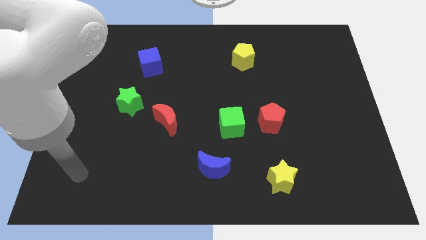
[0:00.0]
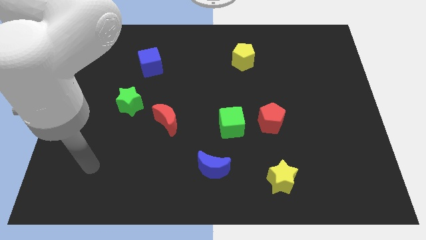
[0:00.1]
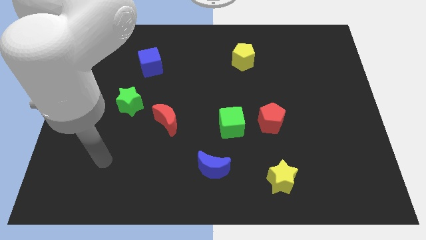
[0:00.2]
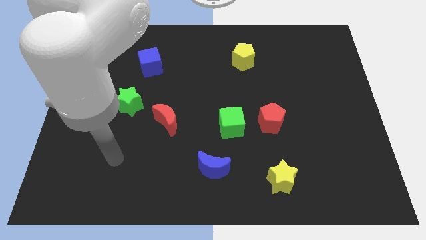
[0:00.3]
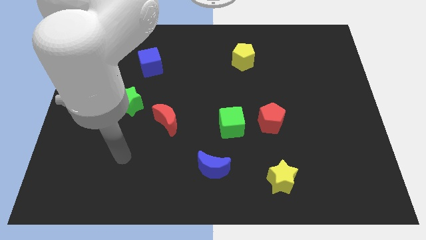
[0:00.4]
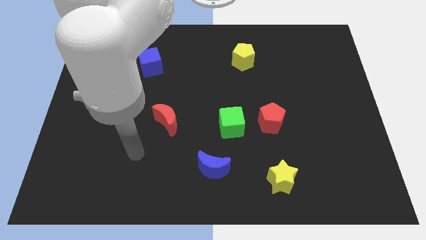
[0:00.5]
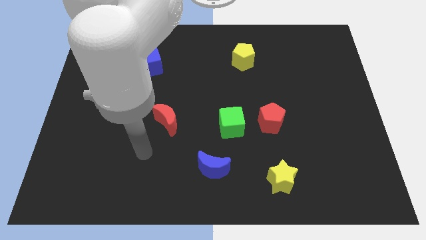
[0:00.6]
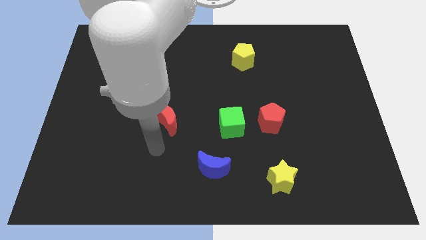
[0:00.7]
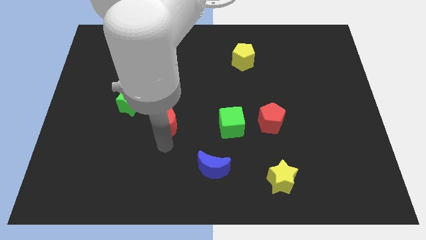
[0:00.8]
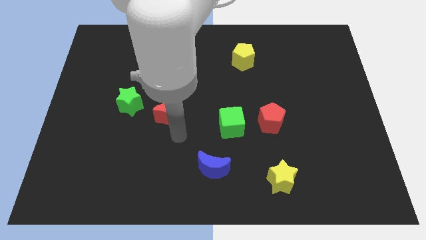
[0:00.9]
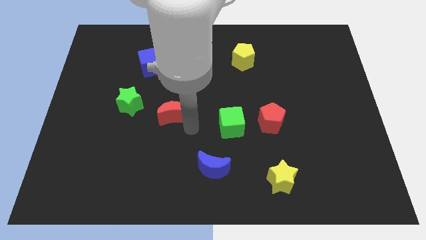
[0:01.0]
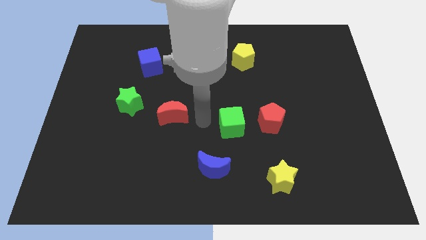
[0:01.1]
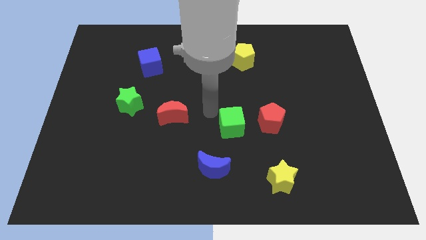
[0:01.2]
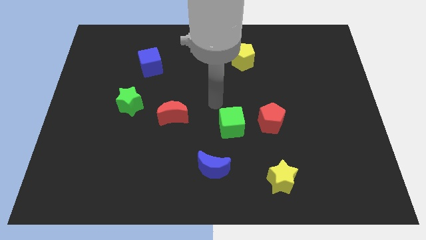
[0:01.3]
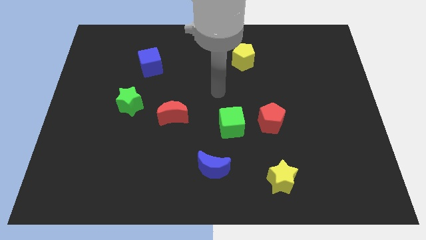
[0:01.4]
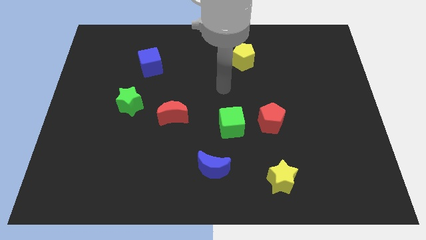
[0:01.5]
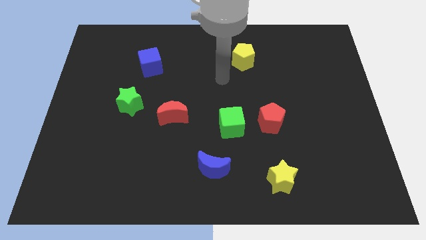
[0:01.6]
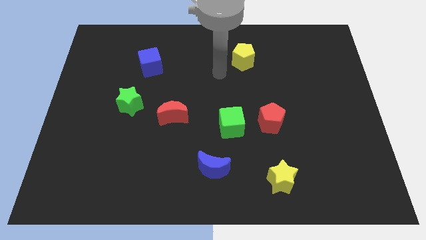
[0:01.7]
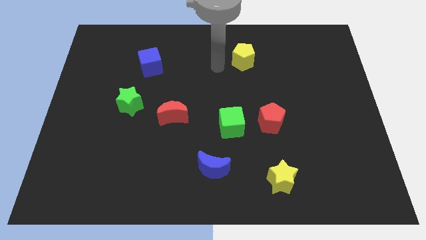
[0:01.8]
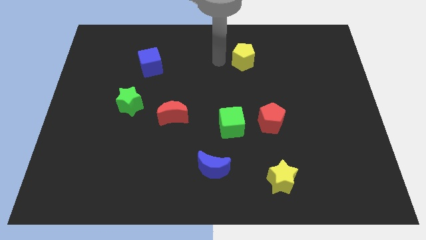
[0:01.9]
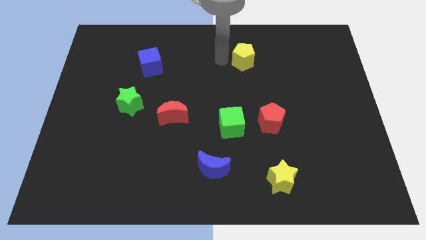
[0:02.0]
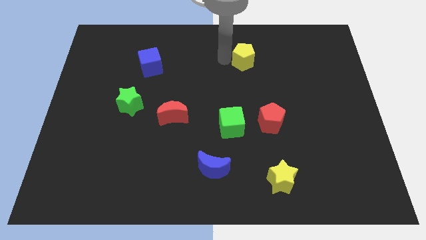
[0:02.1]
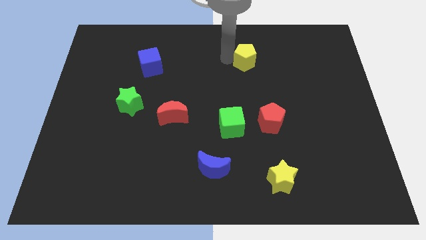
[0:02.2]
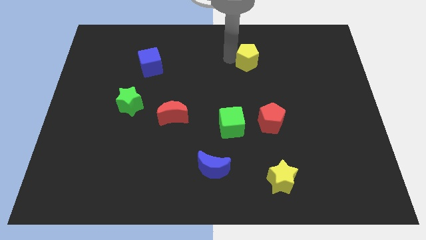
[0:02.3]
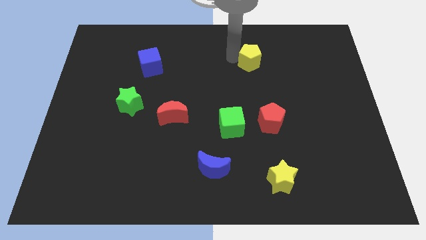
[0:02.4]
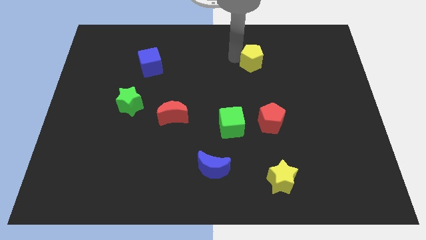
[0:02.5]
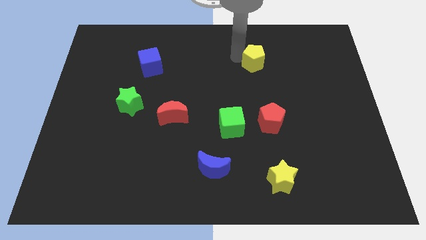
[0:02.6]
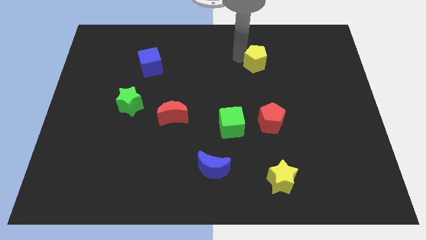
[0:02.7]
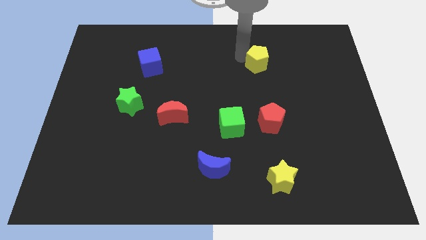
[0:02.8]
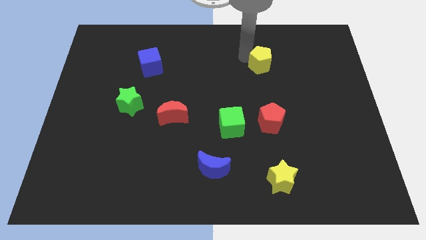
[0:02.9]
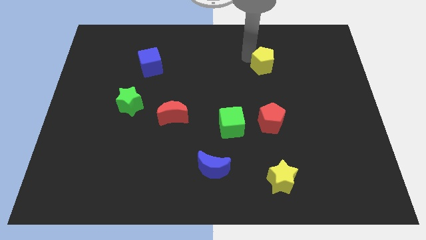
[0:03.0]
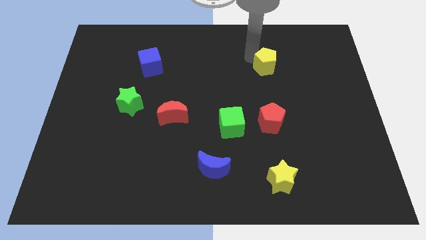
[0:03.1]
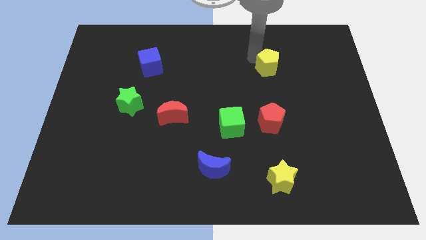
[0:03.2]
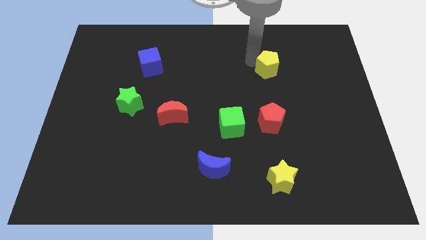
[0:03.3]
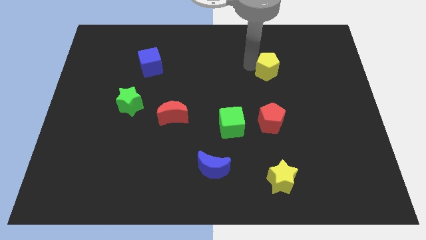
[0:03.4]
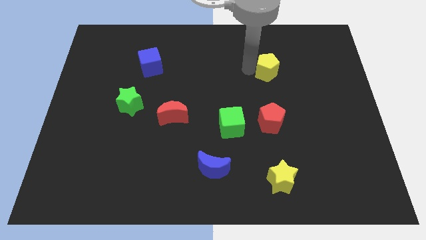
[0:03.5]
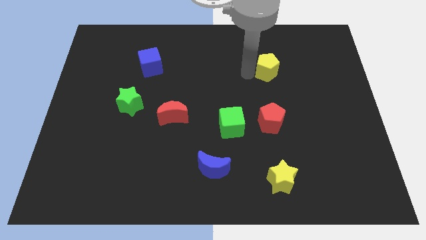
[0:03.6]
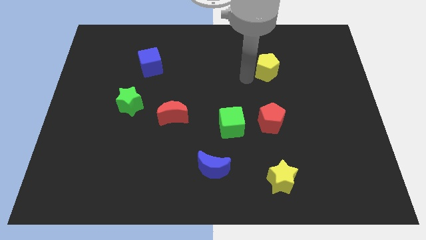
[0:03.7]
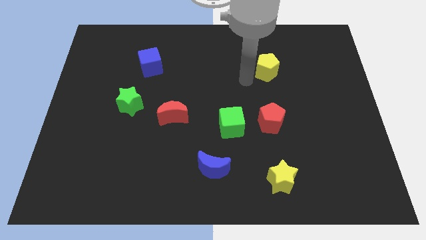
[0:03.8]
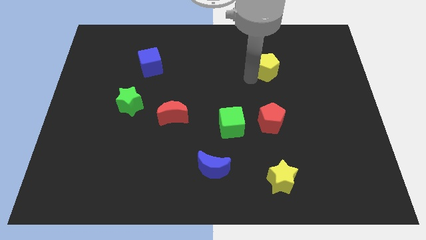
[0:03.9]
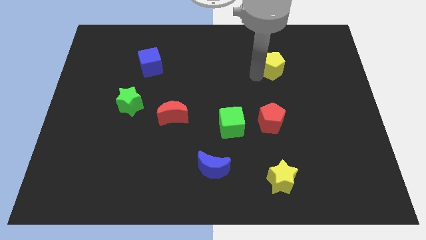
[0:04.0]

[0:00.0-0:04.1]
slightly move the yellow pentagon to the right

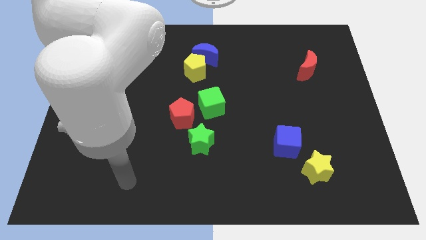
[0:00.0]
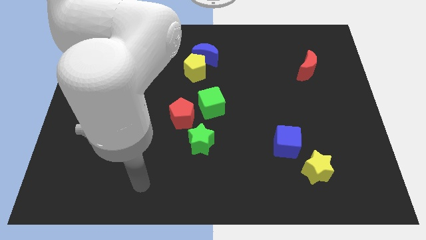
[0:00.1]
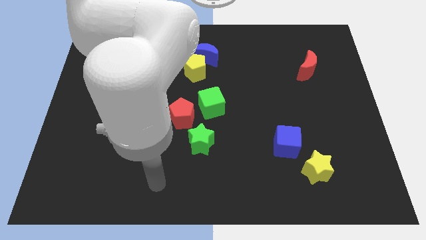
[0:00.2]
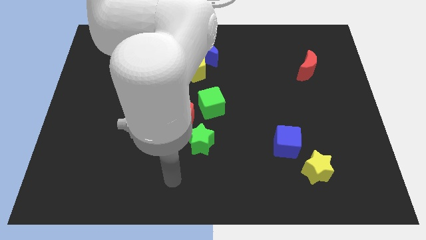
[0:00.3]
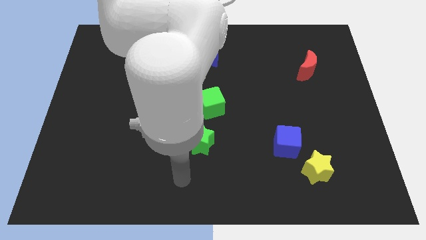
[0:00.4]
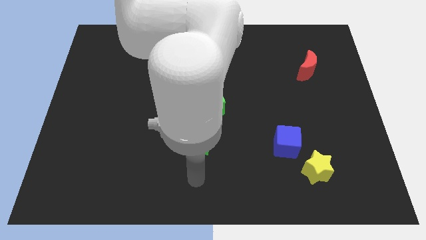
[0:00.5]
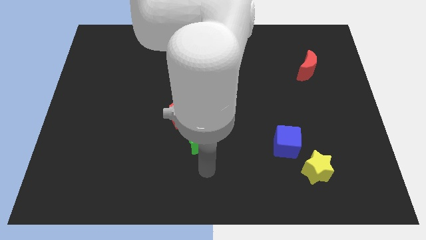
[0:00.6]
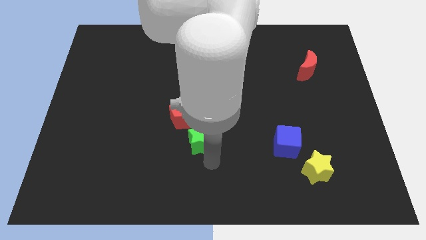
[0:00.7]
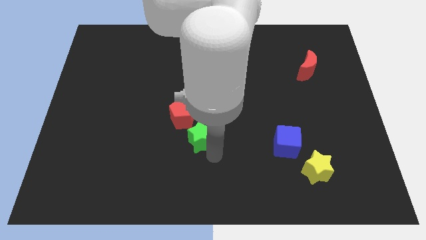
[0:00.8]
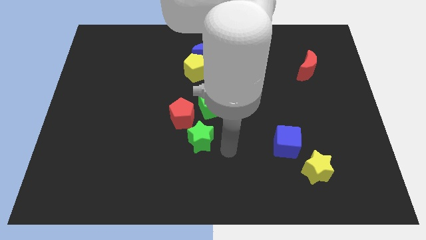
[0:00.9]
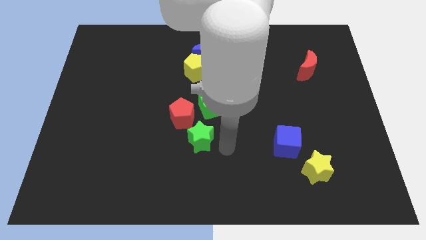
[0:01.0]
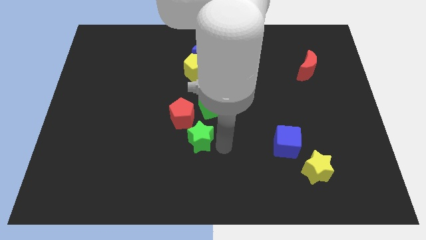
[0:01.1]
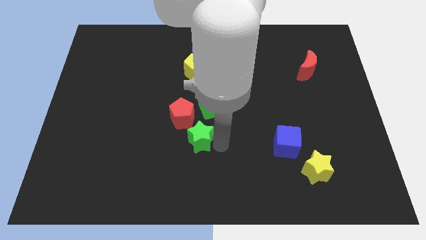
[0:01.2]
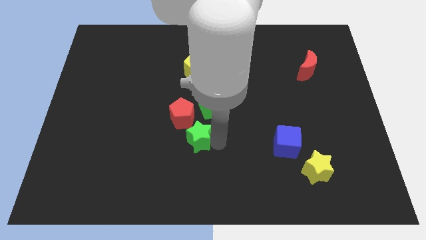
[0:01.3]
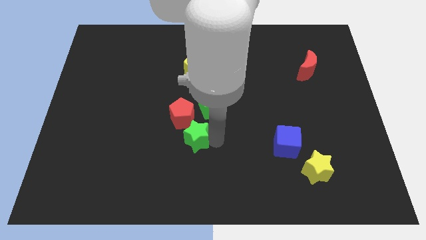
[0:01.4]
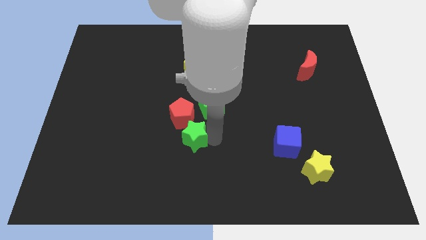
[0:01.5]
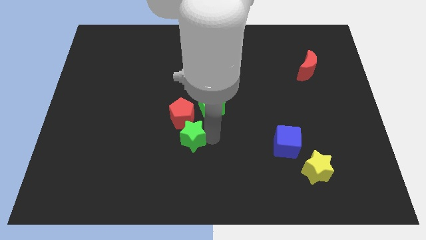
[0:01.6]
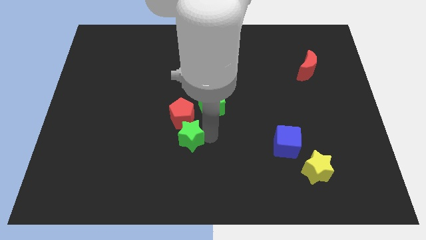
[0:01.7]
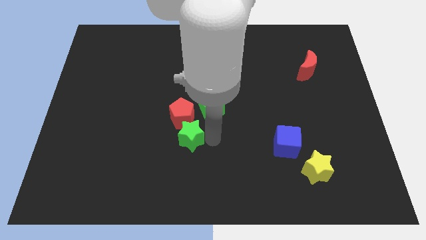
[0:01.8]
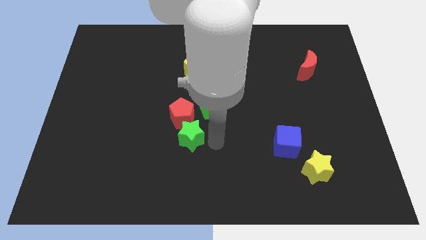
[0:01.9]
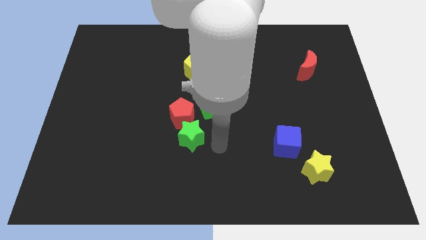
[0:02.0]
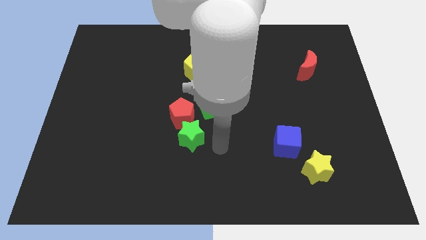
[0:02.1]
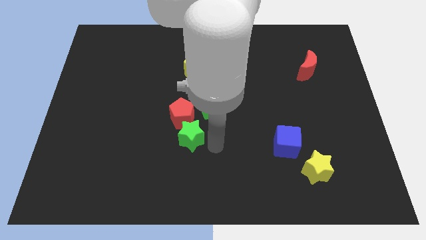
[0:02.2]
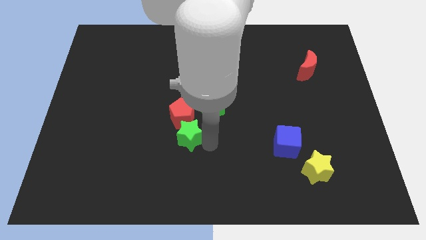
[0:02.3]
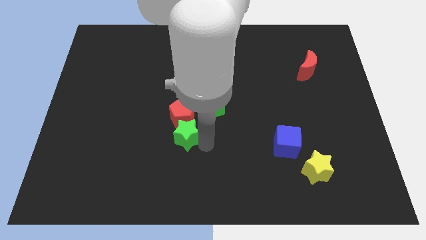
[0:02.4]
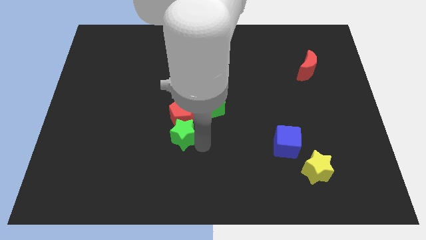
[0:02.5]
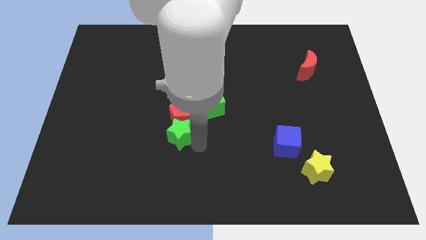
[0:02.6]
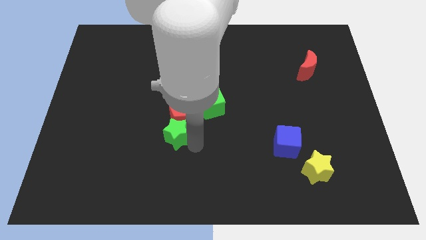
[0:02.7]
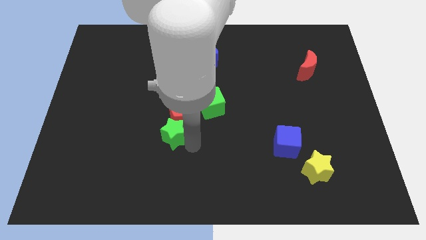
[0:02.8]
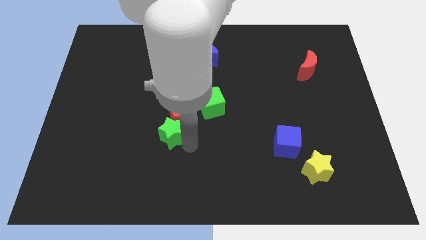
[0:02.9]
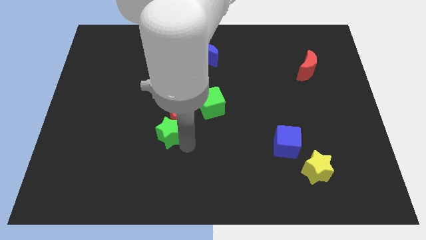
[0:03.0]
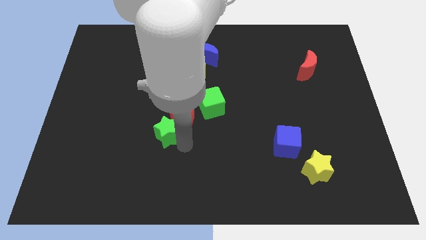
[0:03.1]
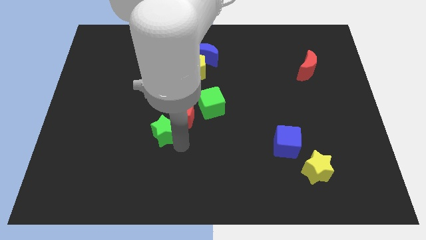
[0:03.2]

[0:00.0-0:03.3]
slightly push the green star up and left diagonally

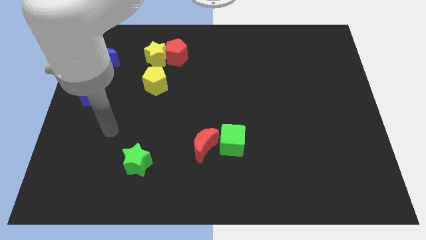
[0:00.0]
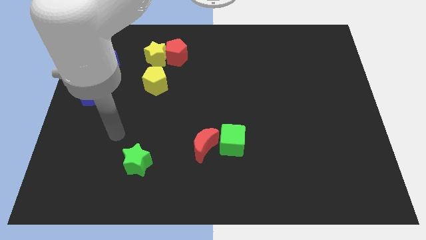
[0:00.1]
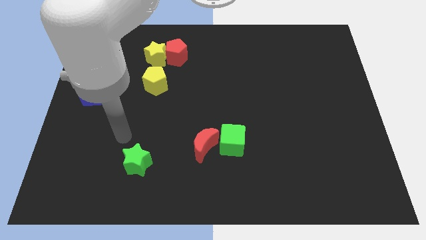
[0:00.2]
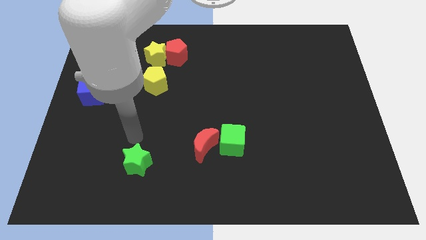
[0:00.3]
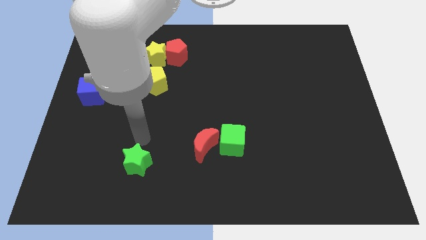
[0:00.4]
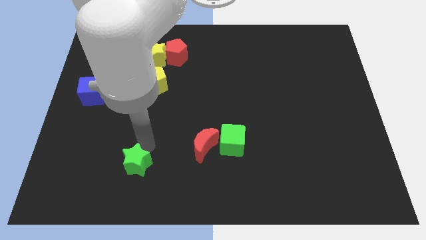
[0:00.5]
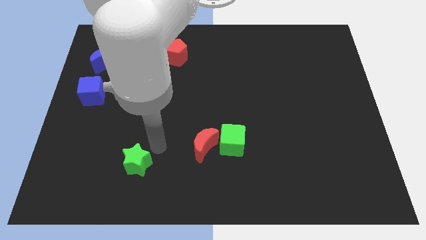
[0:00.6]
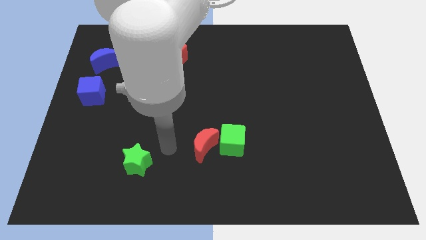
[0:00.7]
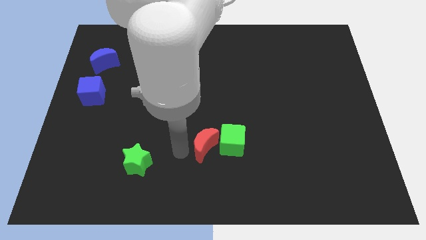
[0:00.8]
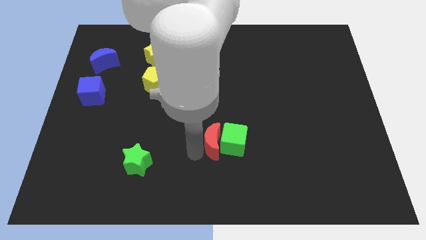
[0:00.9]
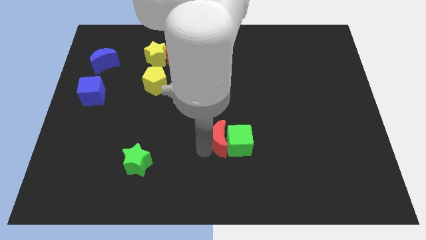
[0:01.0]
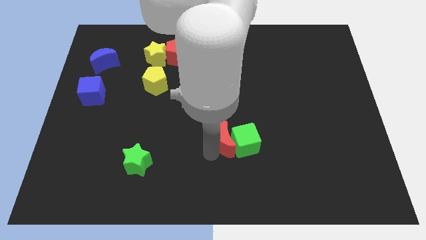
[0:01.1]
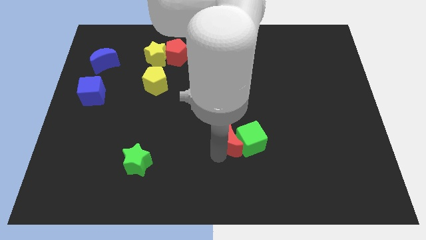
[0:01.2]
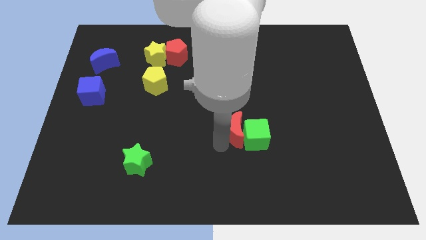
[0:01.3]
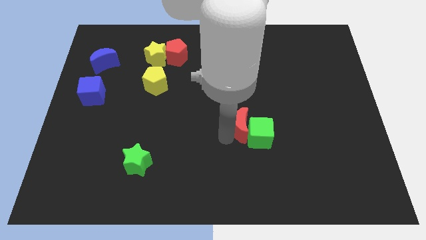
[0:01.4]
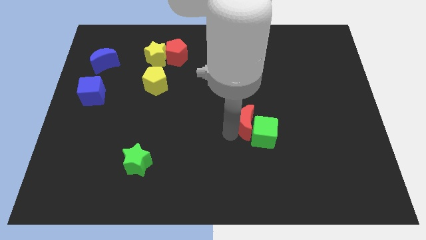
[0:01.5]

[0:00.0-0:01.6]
move the green cube somewhat right
